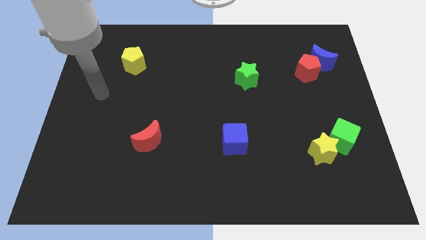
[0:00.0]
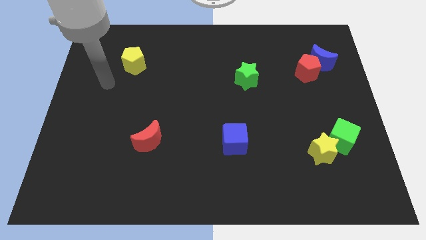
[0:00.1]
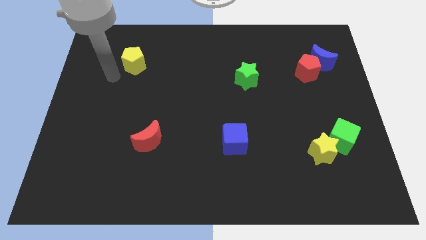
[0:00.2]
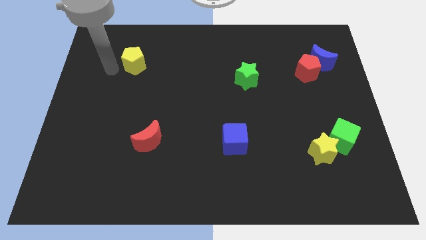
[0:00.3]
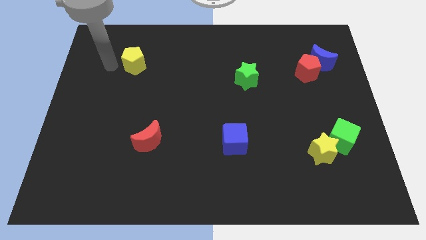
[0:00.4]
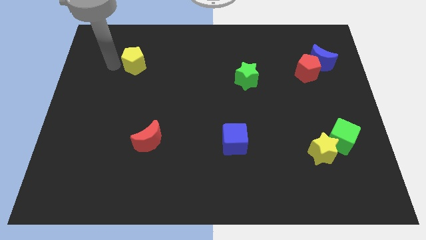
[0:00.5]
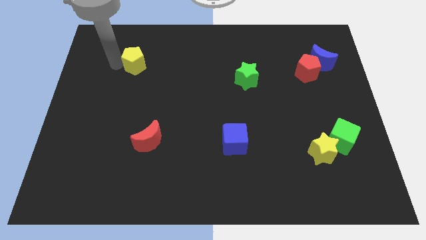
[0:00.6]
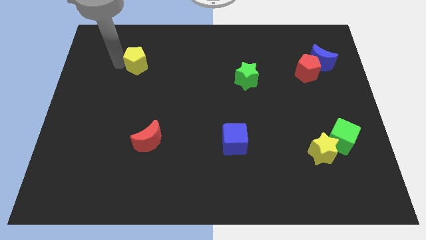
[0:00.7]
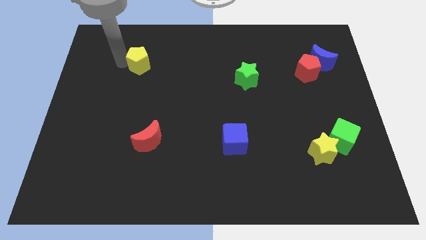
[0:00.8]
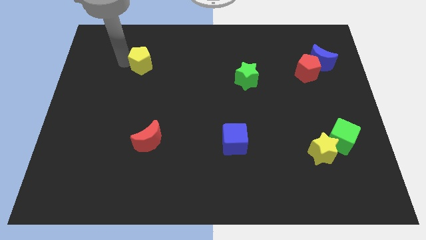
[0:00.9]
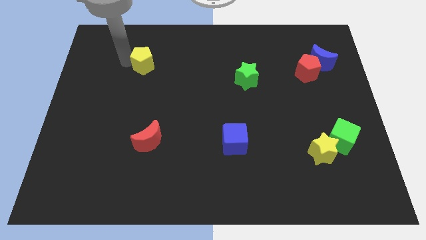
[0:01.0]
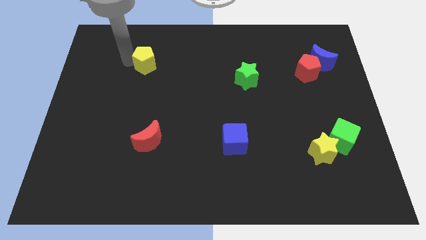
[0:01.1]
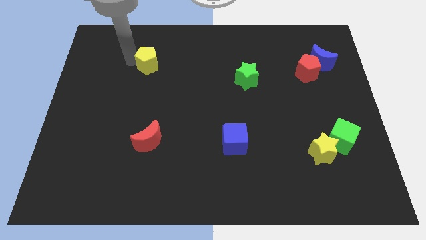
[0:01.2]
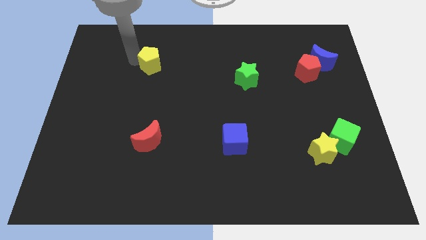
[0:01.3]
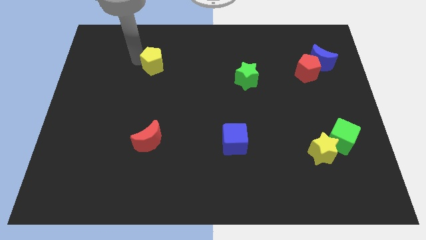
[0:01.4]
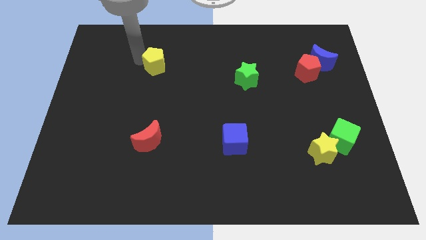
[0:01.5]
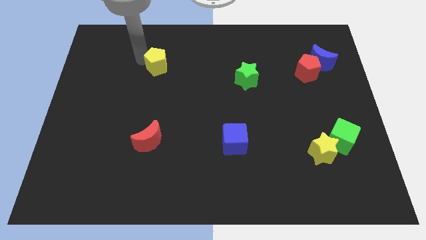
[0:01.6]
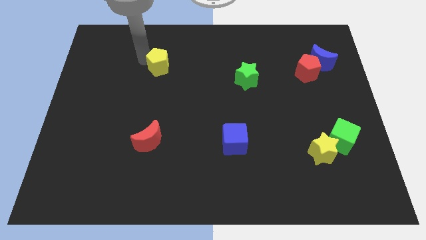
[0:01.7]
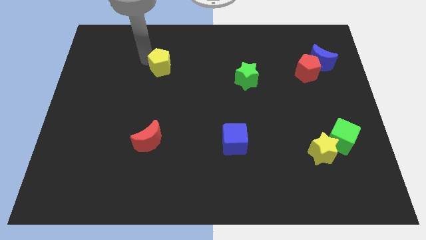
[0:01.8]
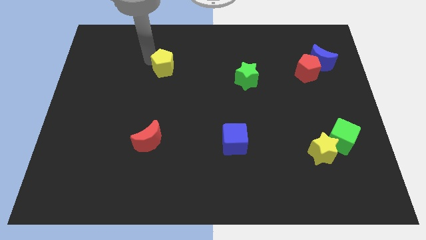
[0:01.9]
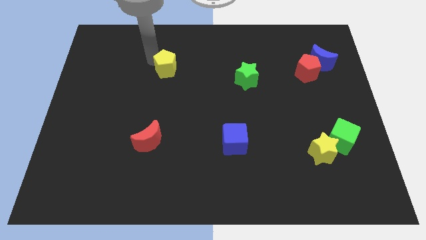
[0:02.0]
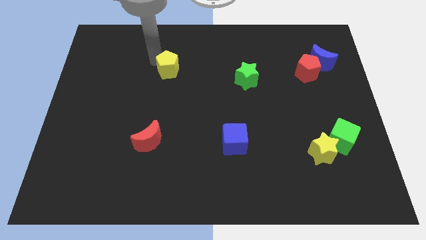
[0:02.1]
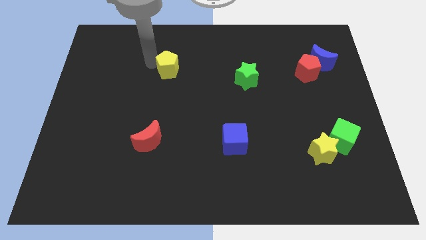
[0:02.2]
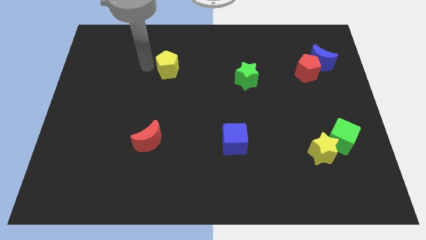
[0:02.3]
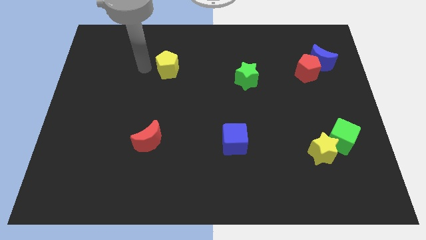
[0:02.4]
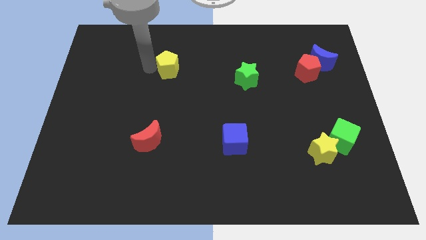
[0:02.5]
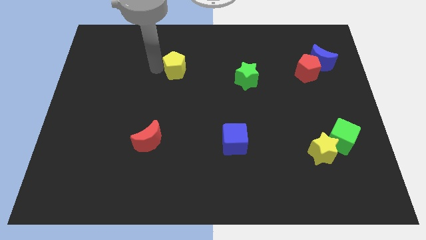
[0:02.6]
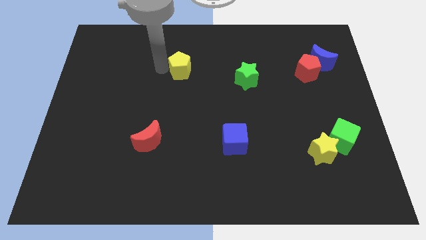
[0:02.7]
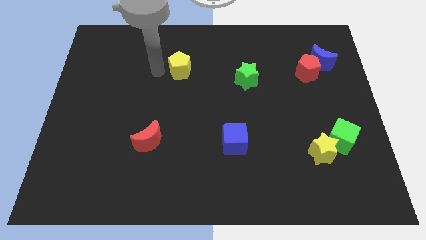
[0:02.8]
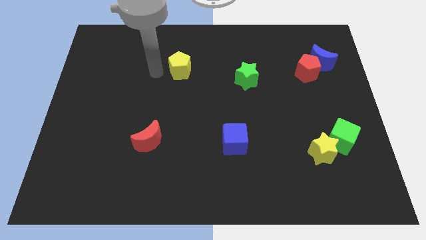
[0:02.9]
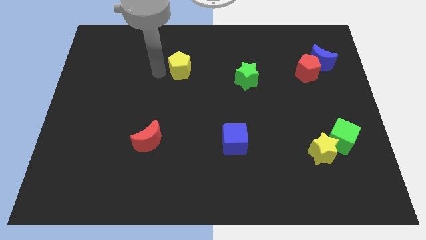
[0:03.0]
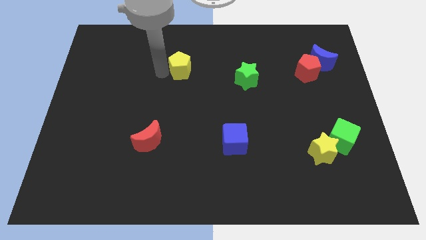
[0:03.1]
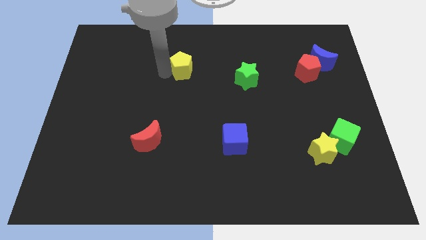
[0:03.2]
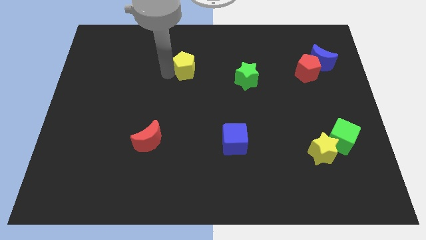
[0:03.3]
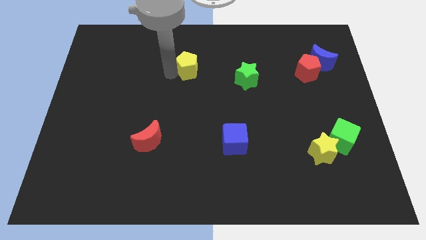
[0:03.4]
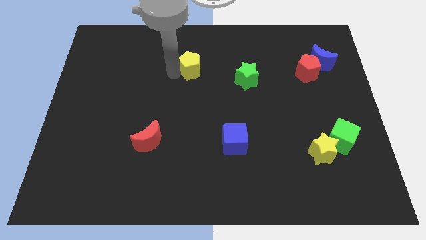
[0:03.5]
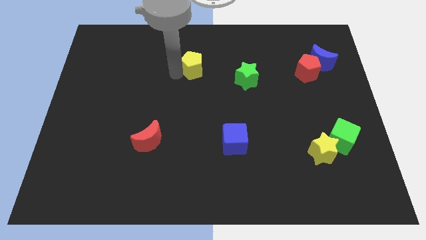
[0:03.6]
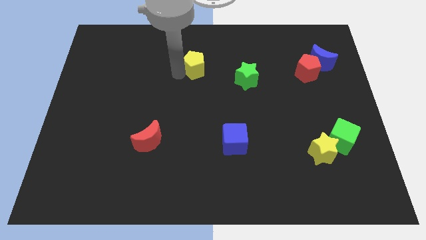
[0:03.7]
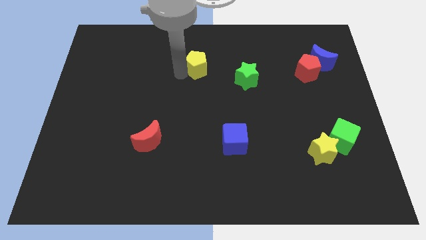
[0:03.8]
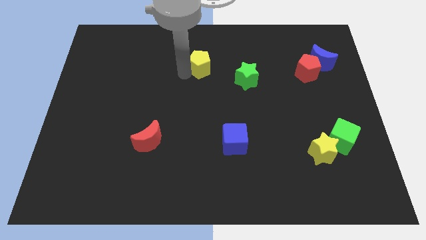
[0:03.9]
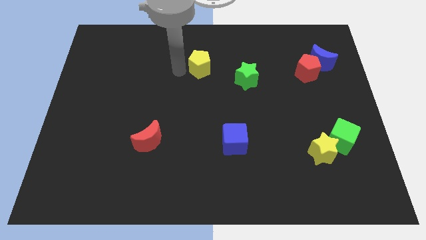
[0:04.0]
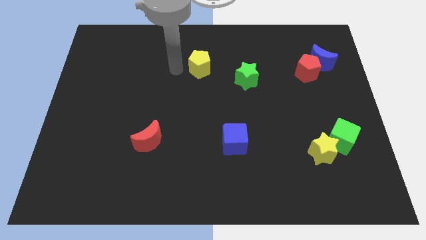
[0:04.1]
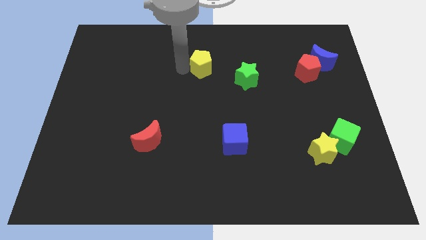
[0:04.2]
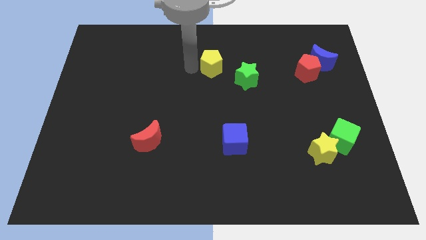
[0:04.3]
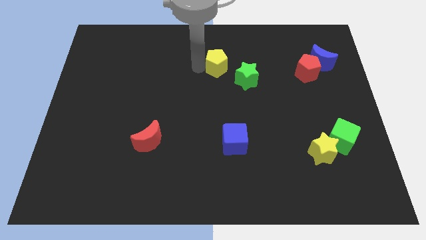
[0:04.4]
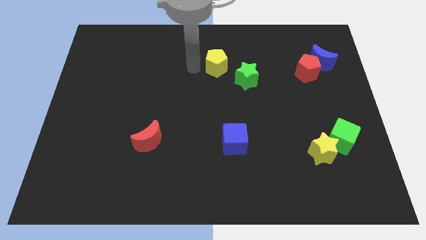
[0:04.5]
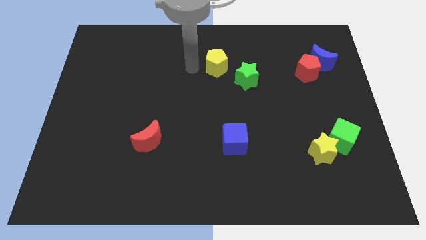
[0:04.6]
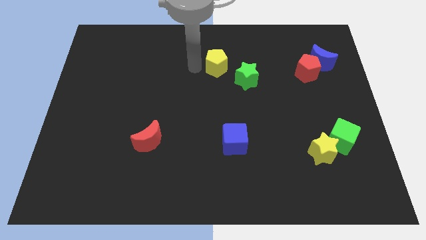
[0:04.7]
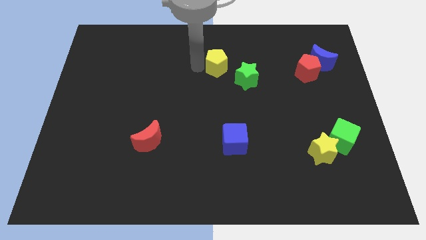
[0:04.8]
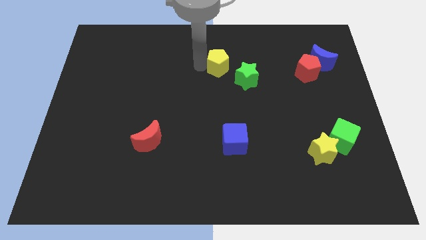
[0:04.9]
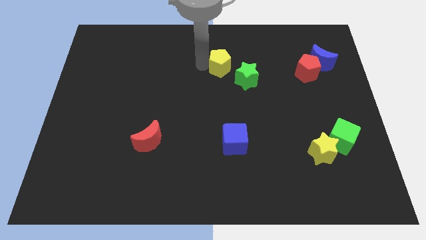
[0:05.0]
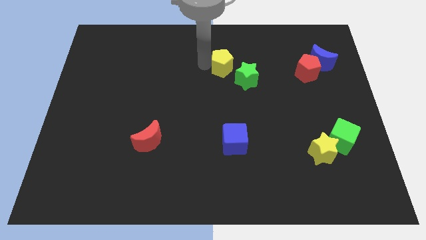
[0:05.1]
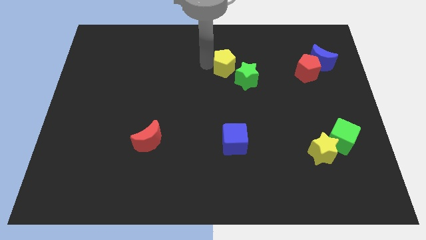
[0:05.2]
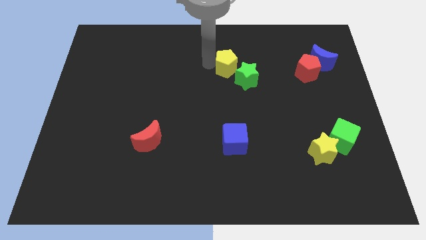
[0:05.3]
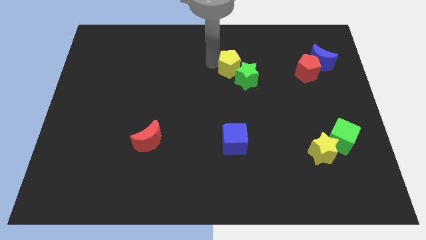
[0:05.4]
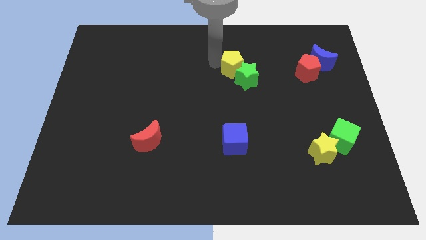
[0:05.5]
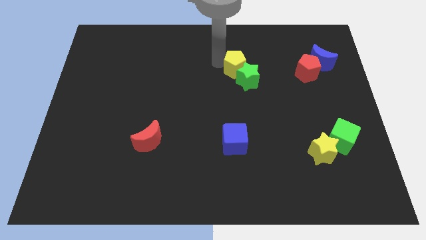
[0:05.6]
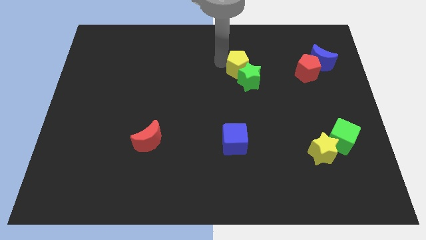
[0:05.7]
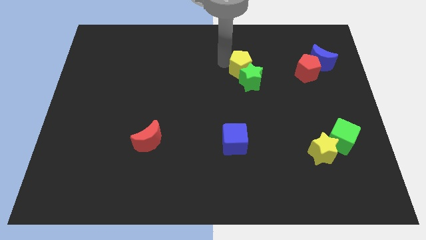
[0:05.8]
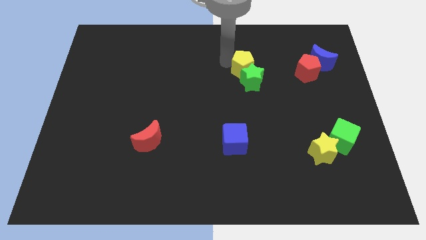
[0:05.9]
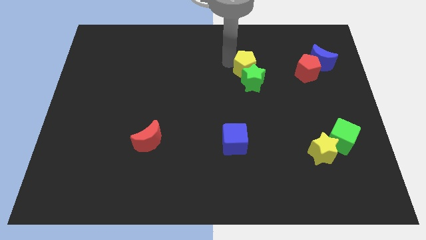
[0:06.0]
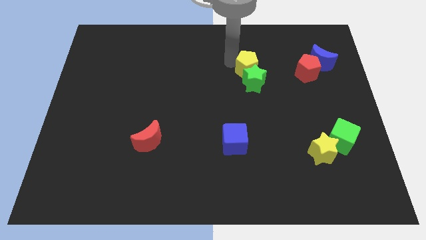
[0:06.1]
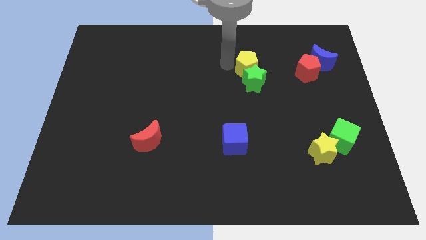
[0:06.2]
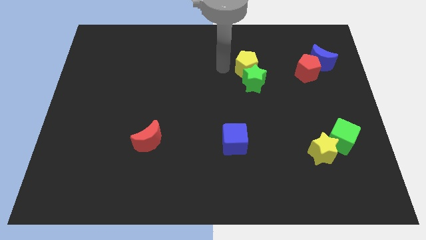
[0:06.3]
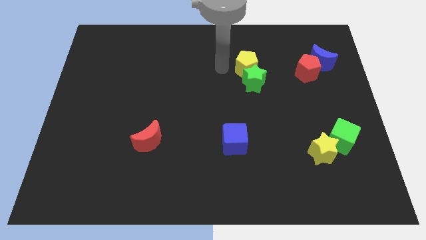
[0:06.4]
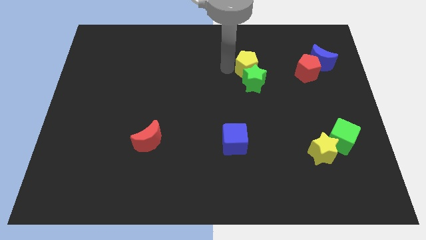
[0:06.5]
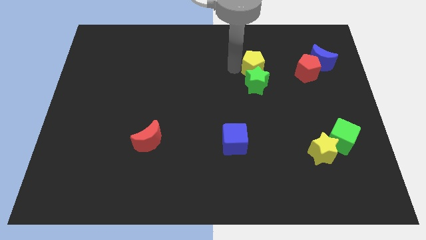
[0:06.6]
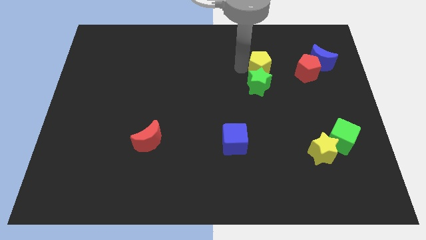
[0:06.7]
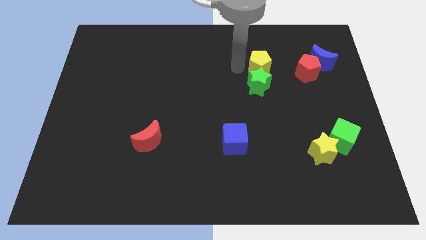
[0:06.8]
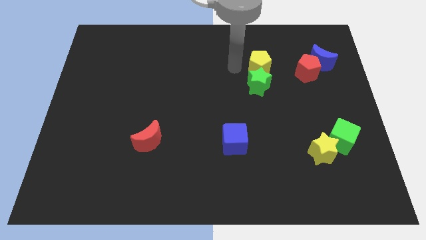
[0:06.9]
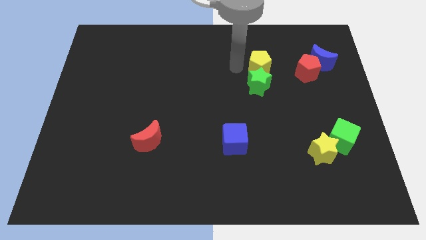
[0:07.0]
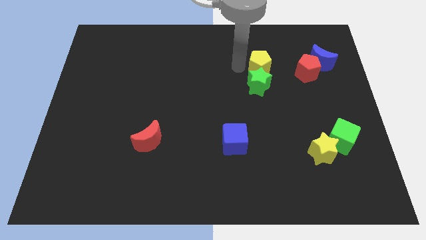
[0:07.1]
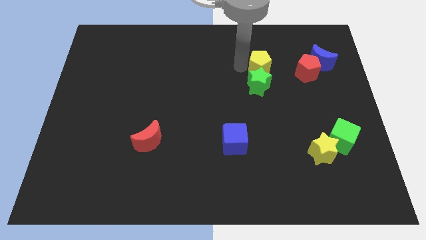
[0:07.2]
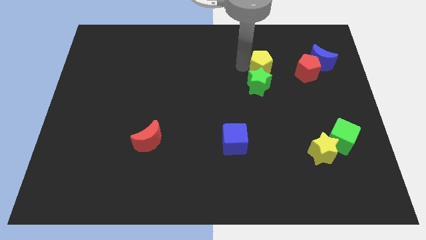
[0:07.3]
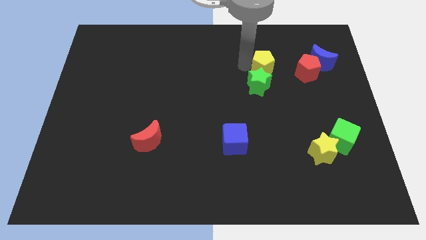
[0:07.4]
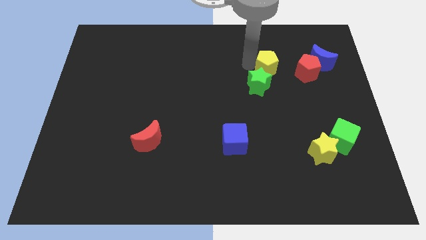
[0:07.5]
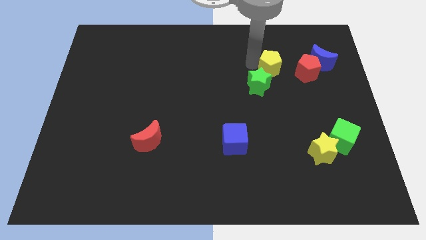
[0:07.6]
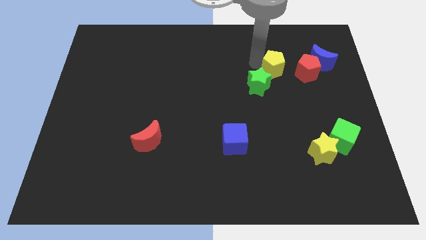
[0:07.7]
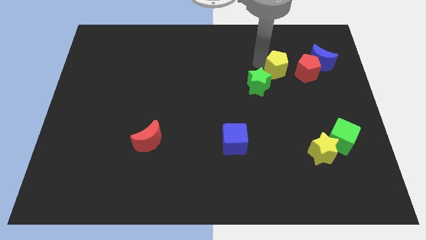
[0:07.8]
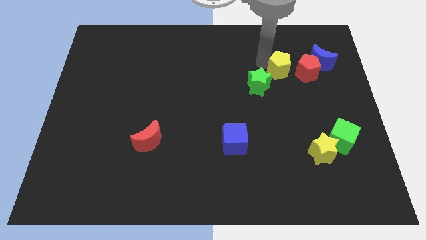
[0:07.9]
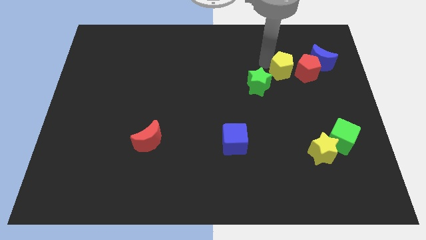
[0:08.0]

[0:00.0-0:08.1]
push the yellow pentagon towards the red pentagon
